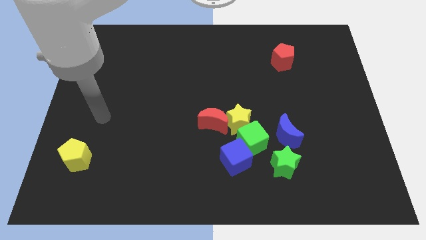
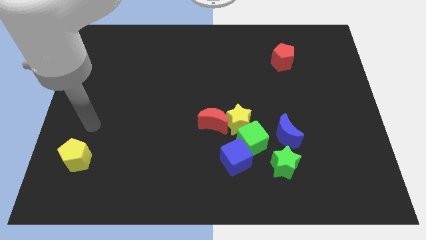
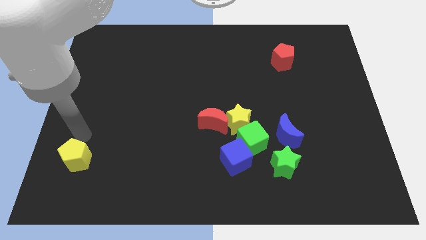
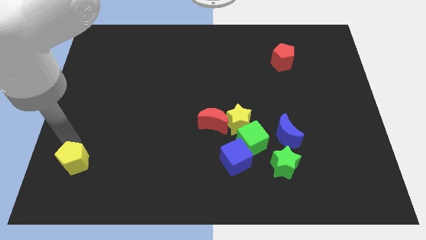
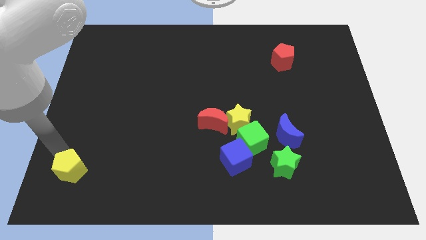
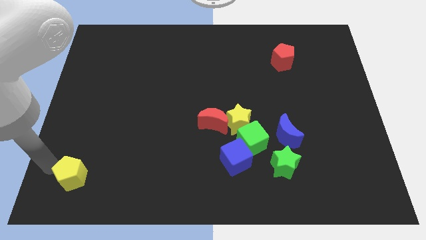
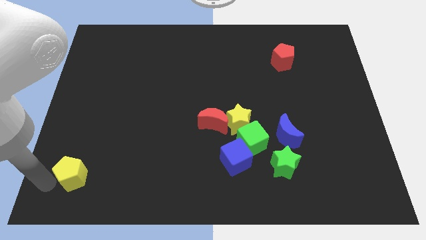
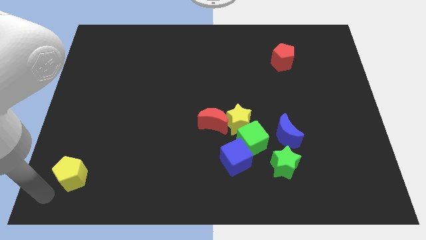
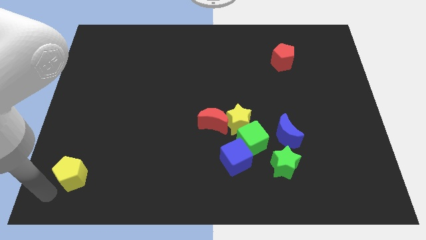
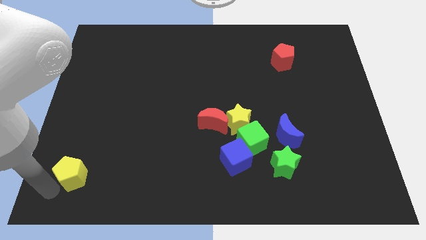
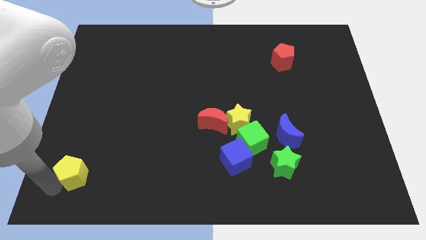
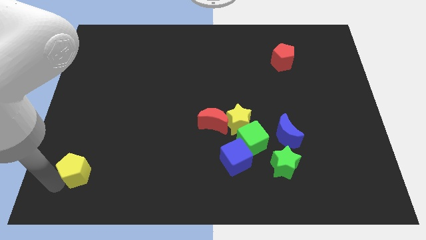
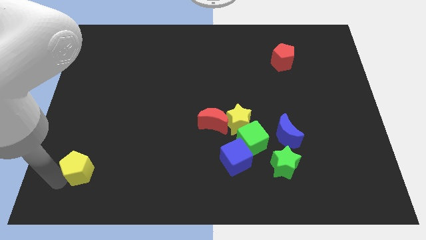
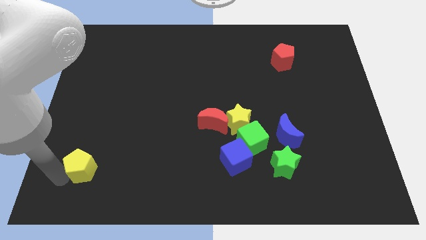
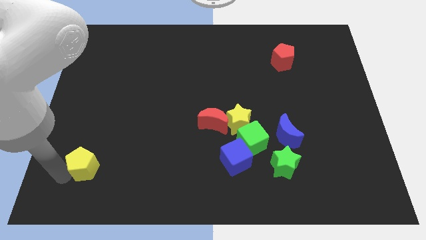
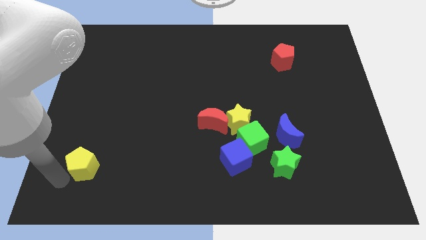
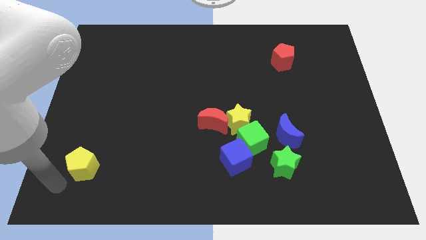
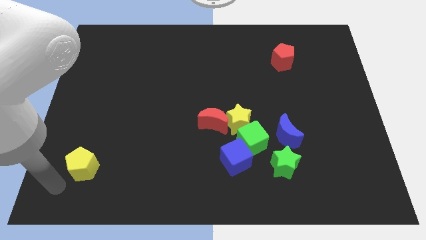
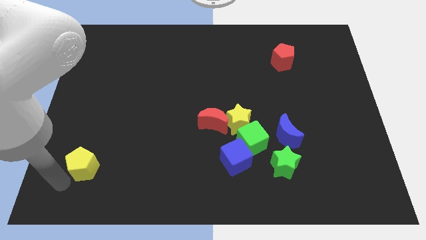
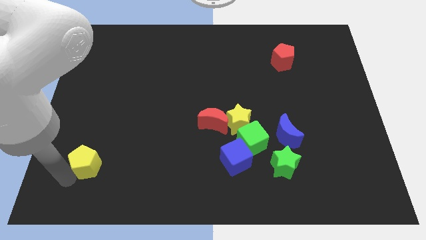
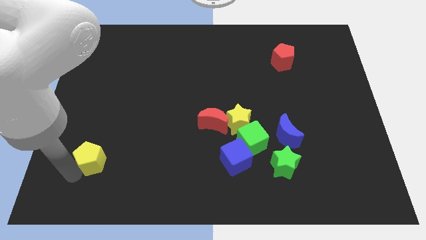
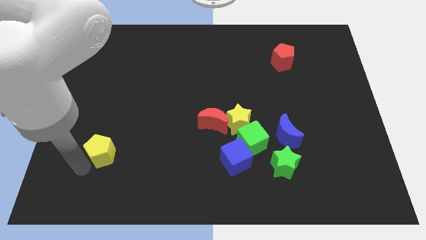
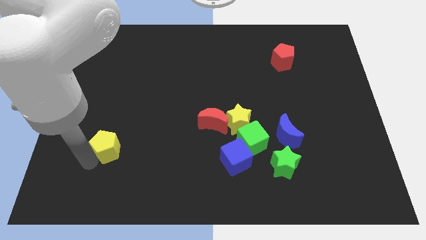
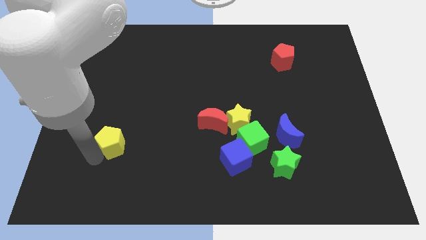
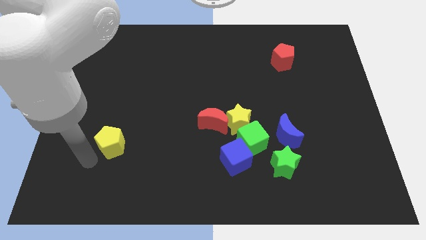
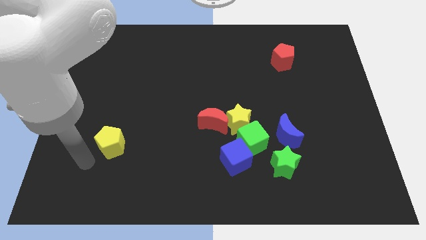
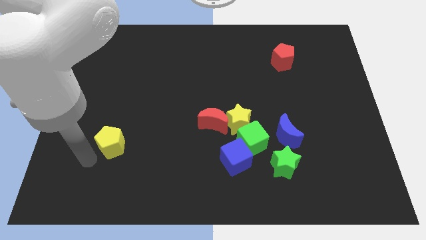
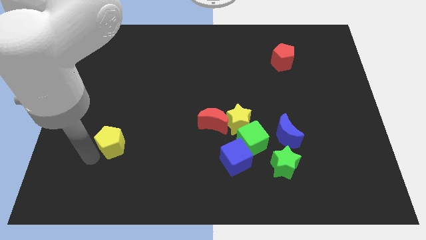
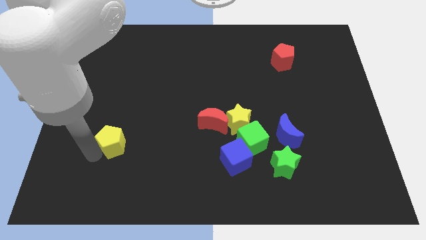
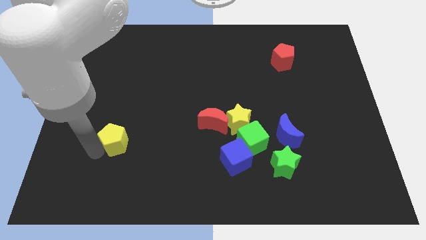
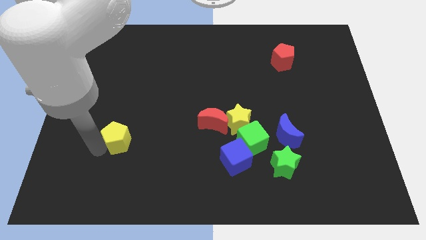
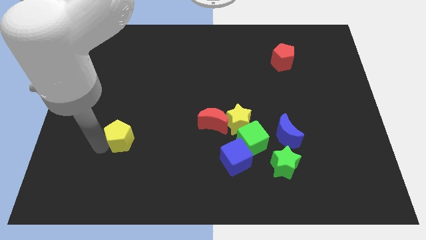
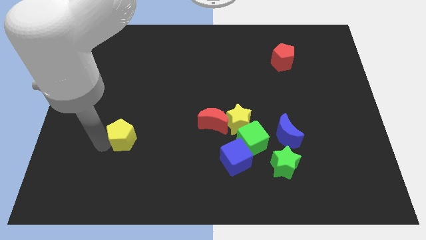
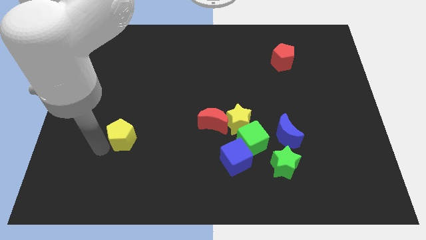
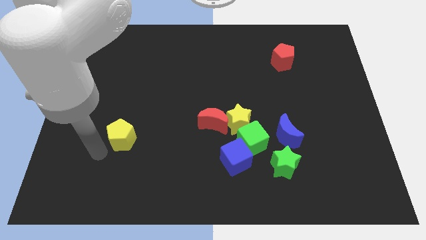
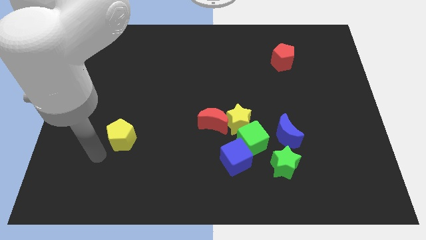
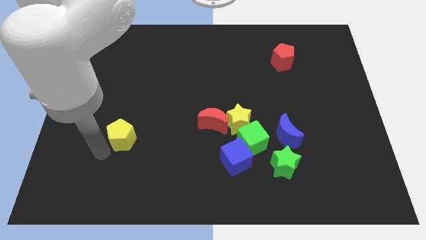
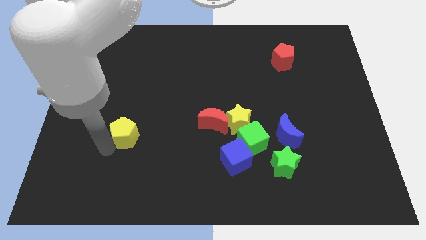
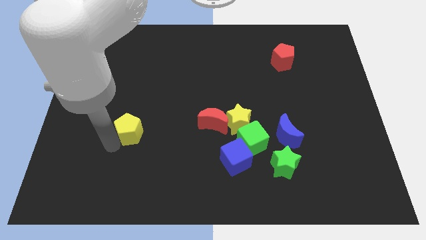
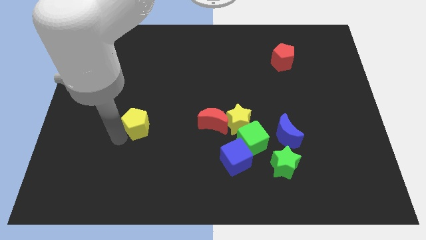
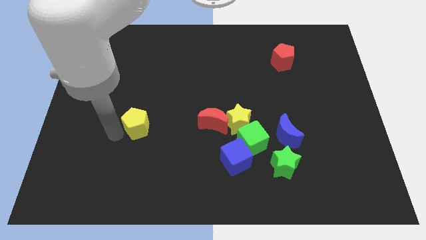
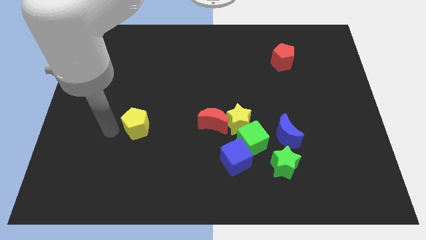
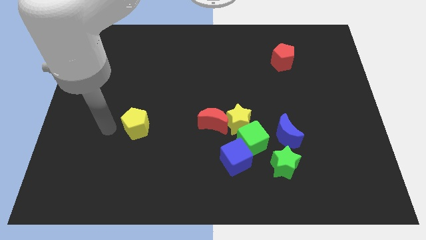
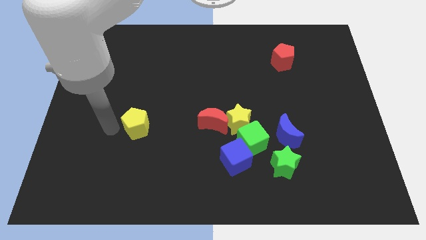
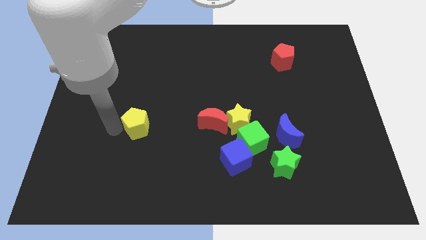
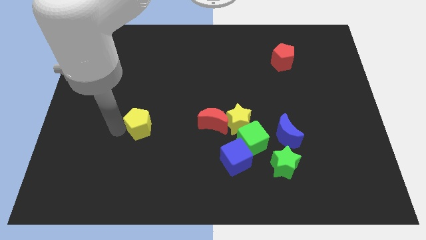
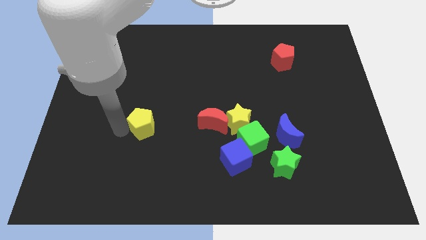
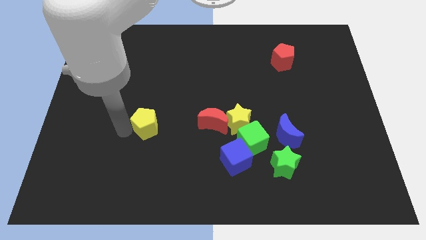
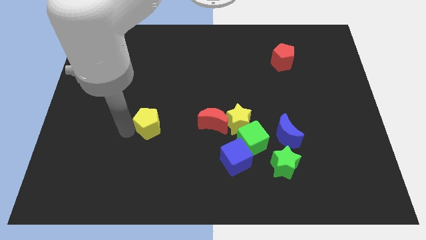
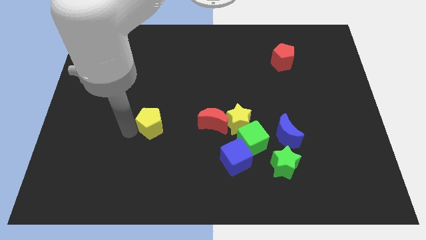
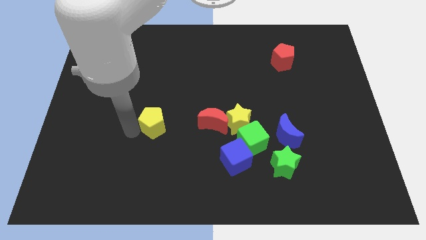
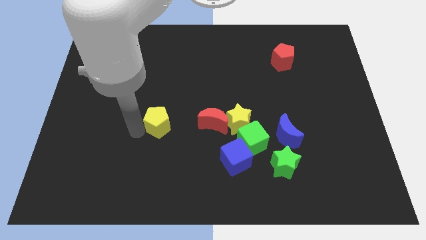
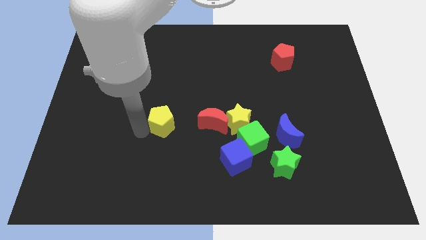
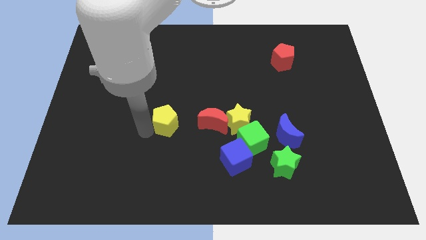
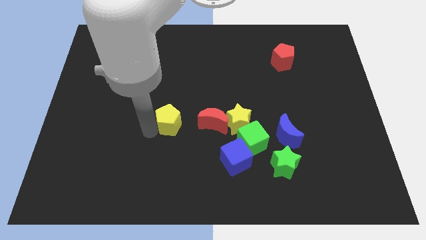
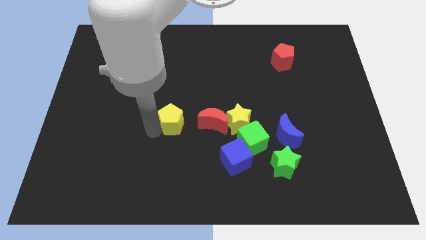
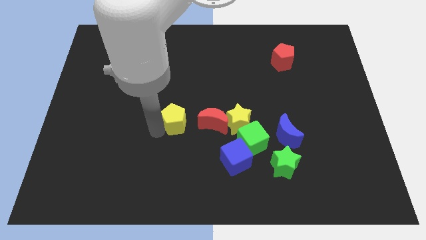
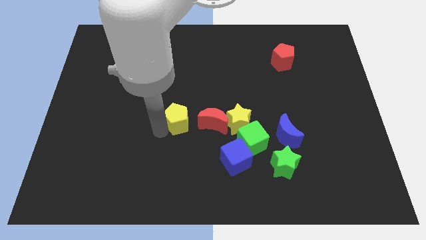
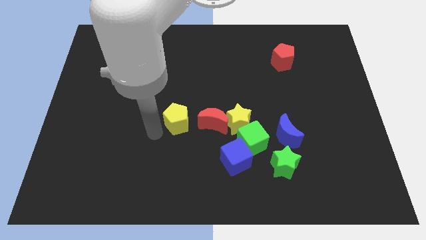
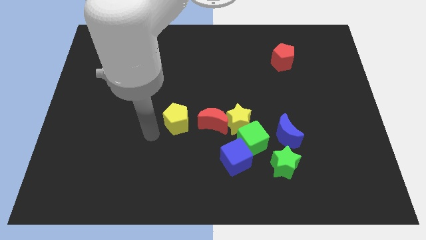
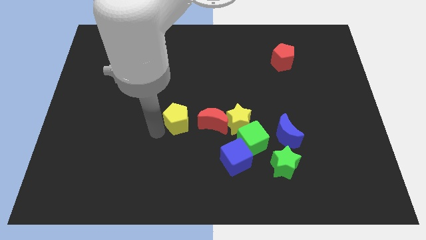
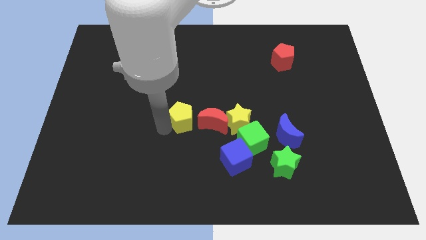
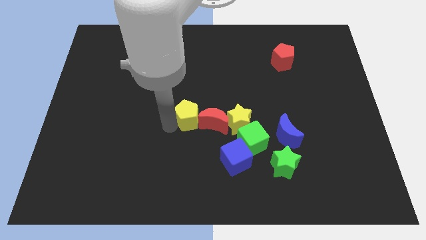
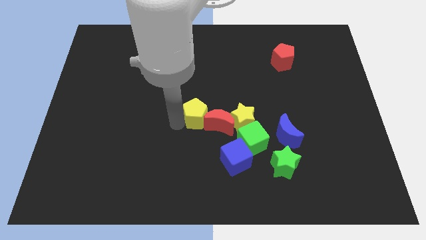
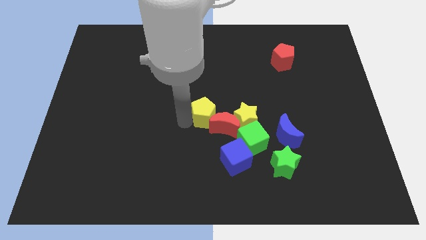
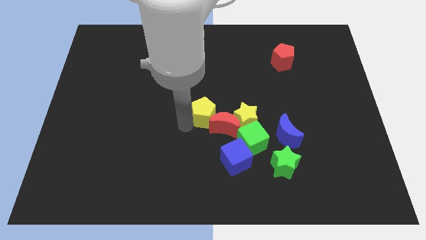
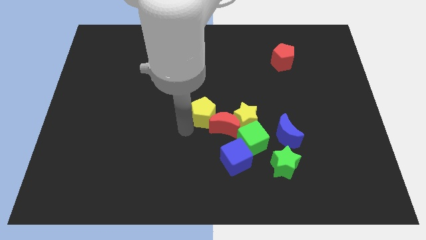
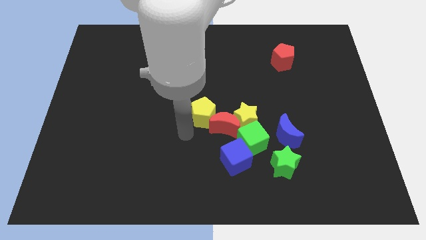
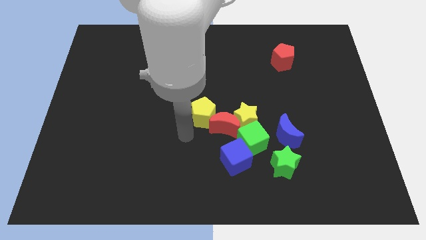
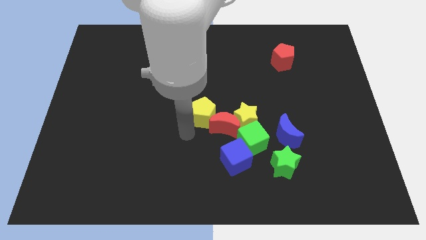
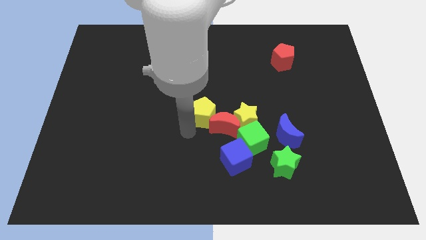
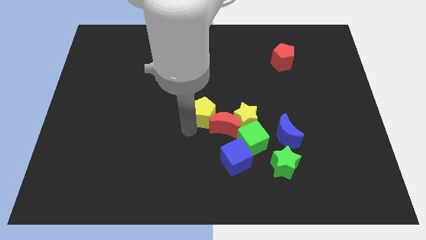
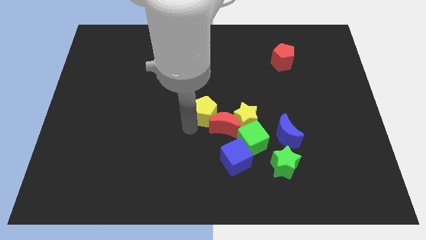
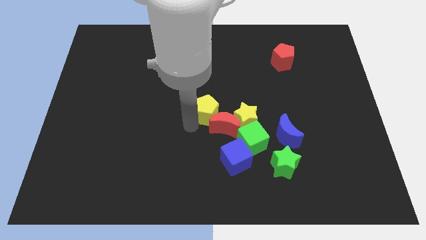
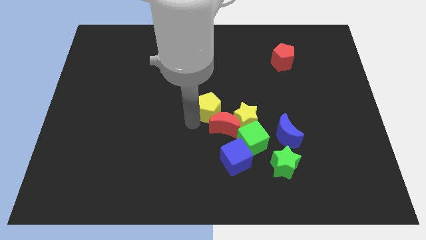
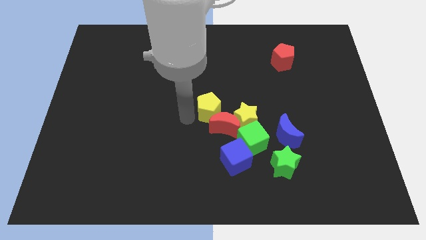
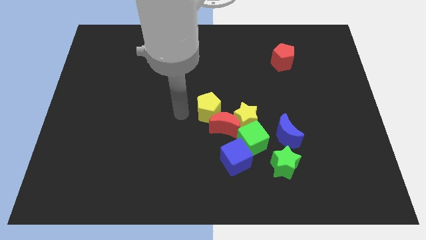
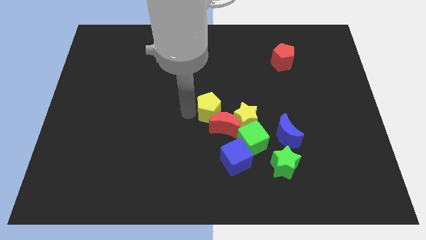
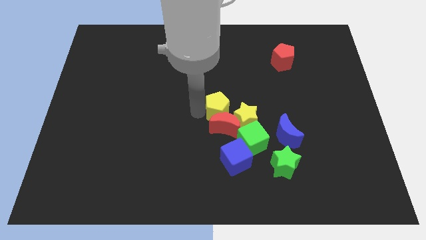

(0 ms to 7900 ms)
move the yellow pentagon to the top right of the red moon
